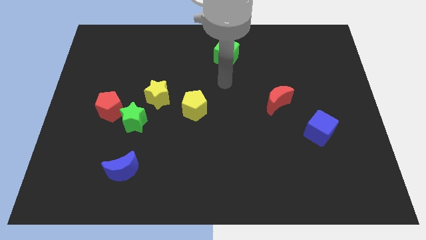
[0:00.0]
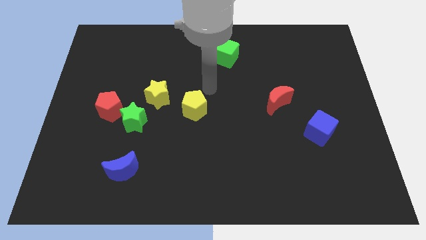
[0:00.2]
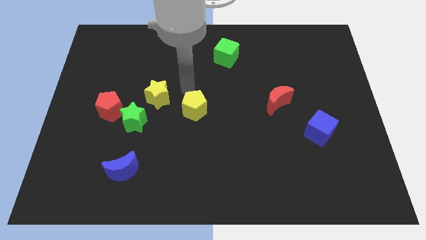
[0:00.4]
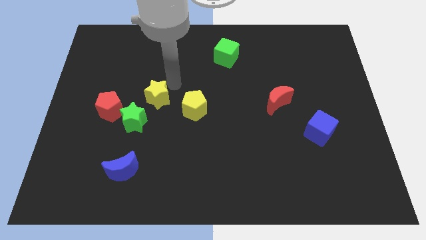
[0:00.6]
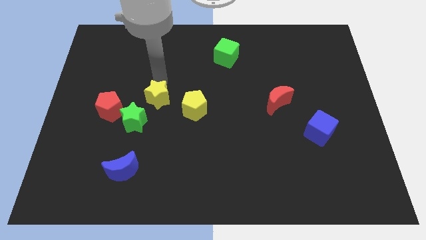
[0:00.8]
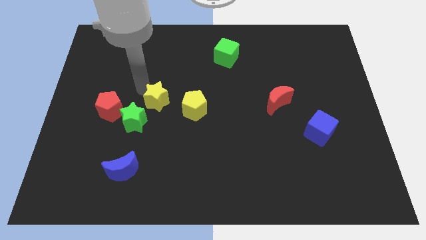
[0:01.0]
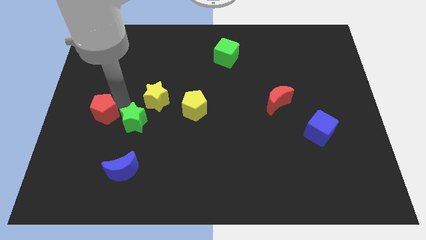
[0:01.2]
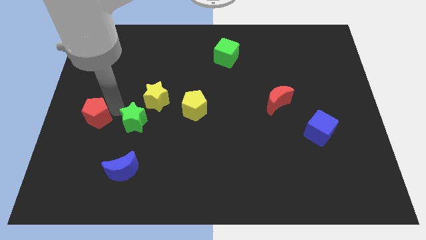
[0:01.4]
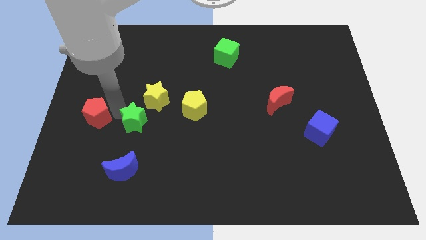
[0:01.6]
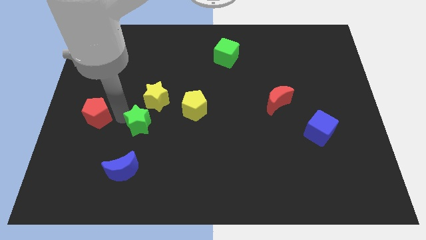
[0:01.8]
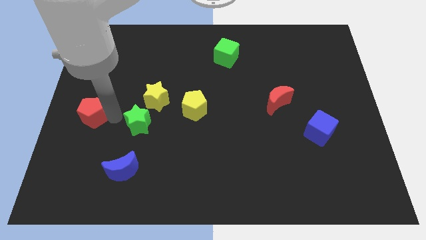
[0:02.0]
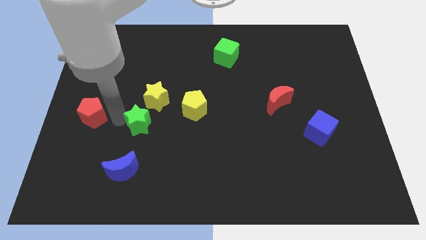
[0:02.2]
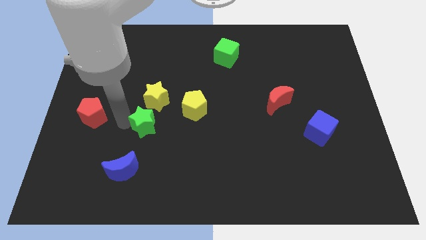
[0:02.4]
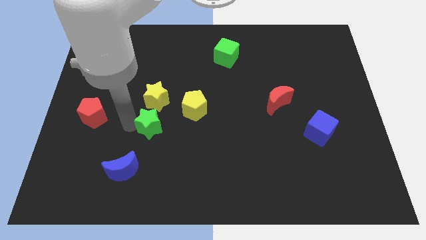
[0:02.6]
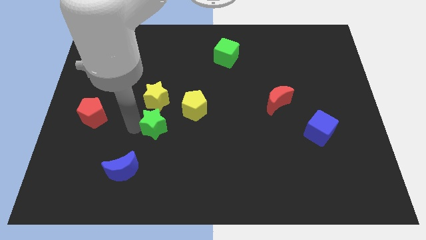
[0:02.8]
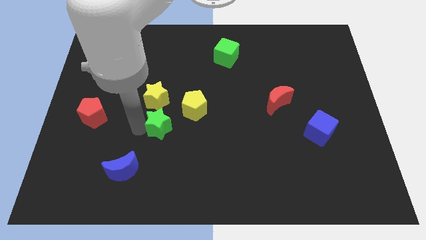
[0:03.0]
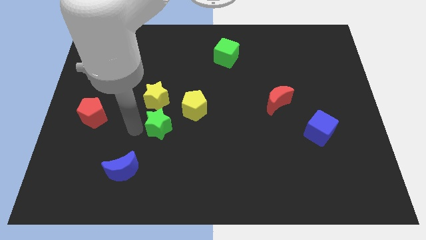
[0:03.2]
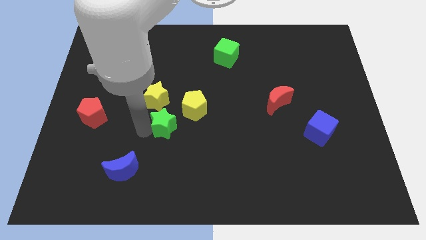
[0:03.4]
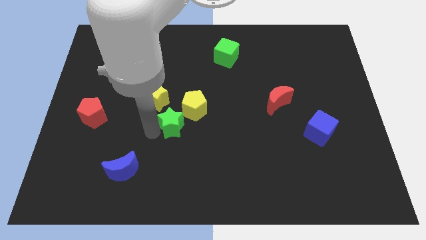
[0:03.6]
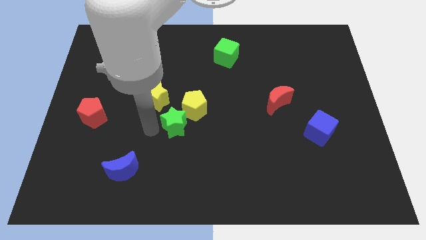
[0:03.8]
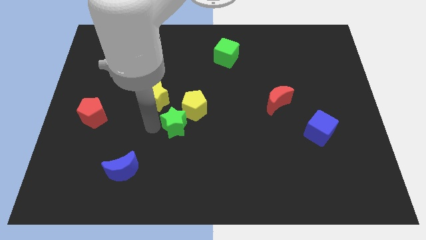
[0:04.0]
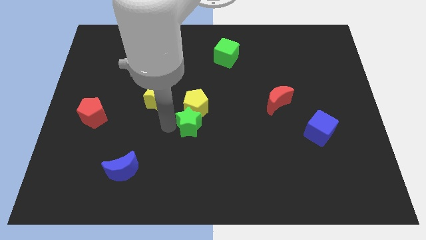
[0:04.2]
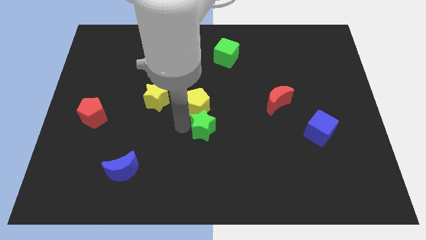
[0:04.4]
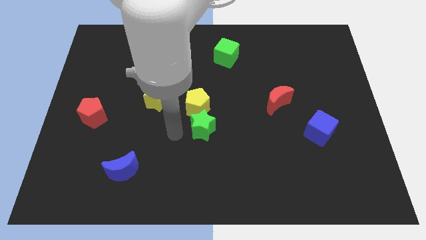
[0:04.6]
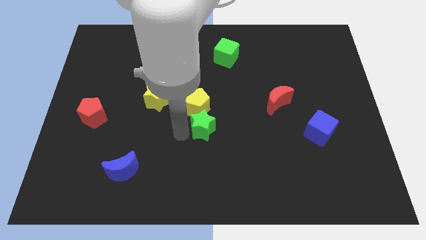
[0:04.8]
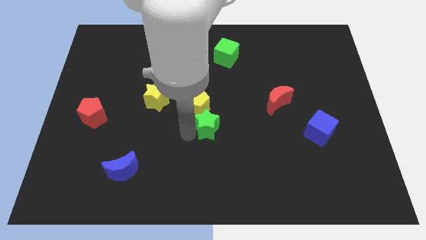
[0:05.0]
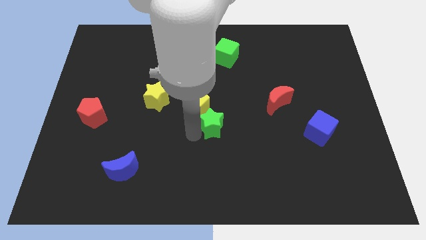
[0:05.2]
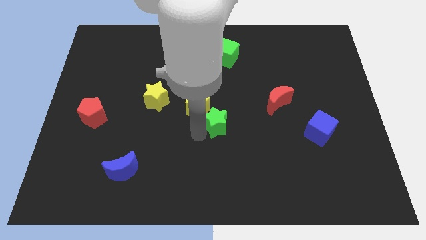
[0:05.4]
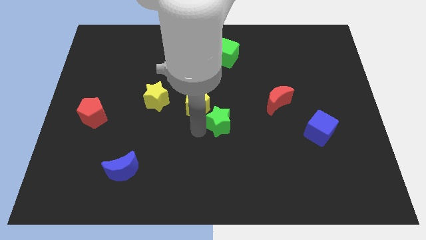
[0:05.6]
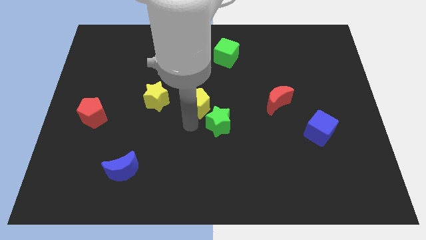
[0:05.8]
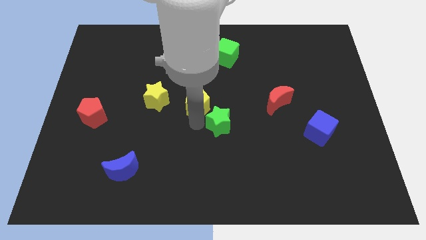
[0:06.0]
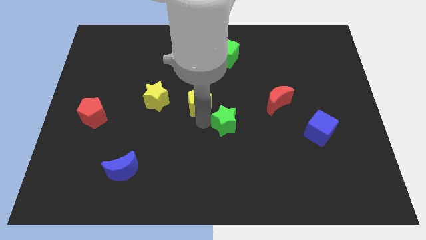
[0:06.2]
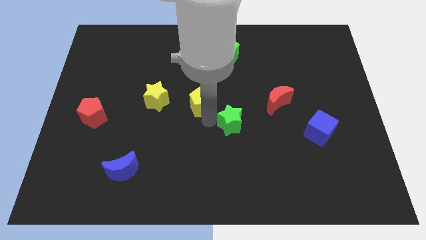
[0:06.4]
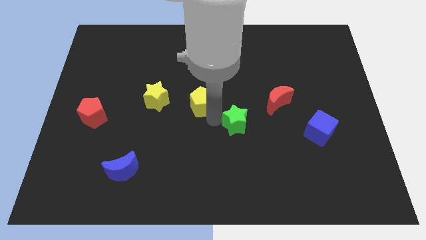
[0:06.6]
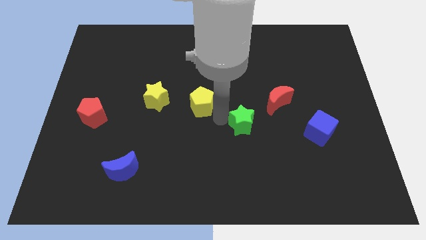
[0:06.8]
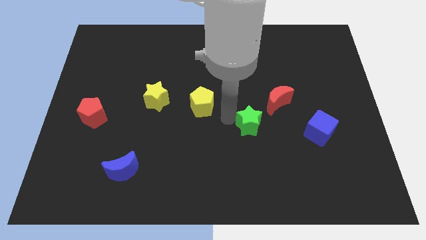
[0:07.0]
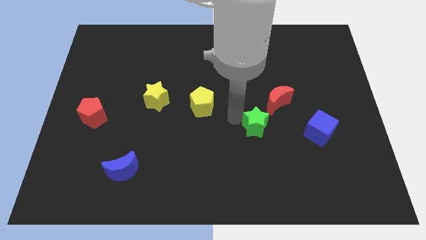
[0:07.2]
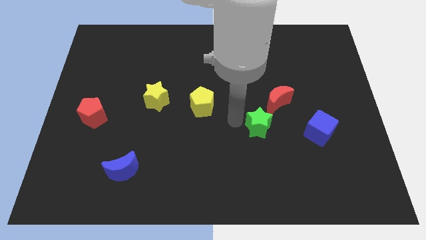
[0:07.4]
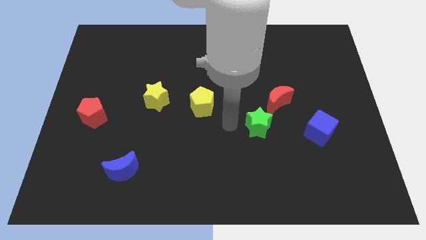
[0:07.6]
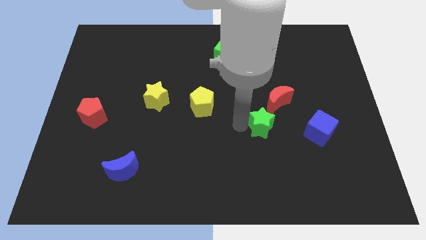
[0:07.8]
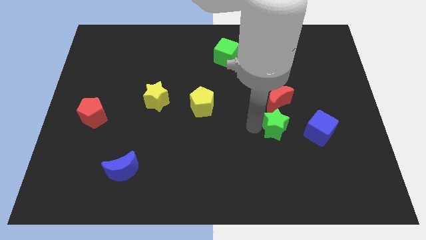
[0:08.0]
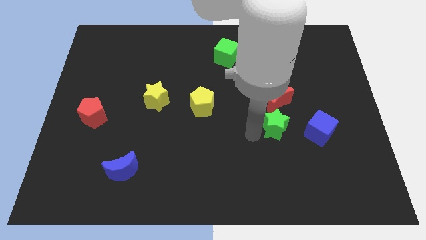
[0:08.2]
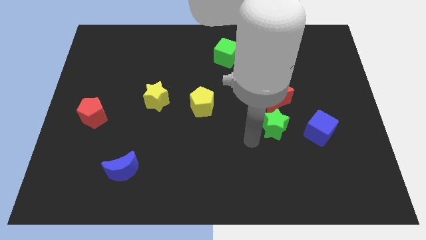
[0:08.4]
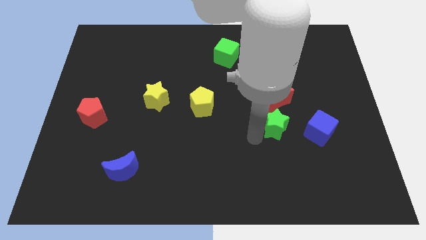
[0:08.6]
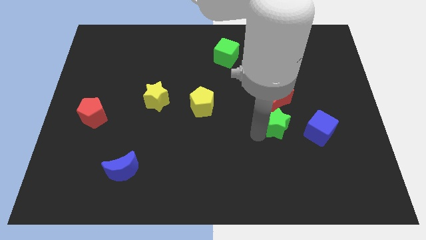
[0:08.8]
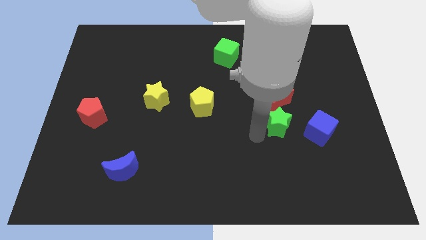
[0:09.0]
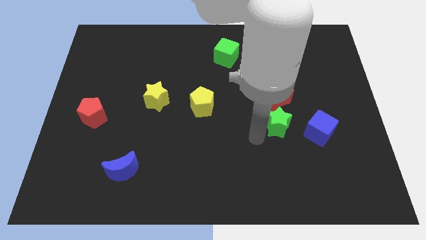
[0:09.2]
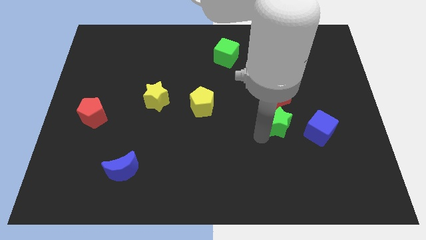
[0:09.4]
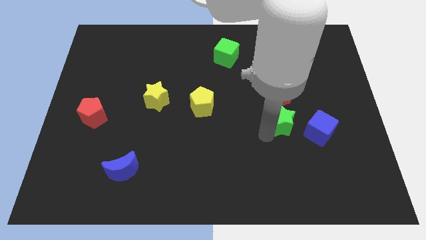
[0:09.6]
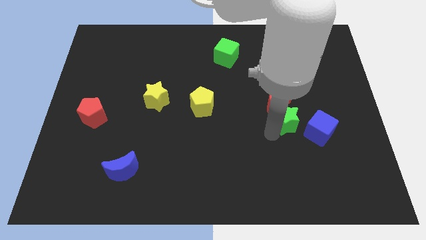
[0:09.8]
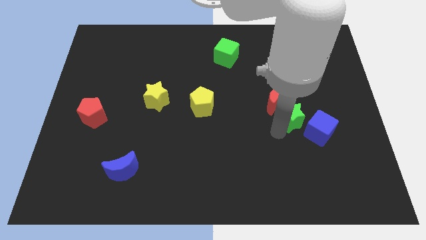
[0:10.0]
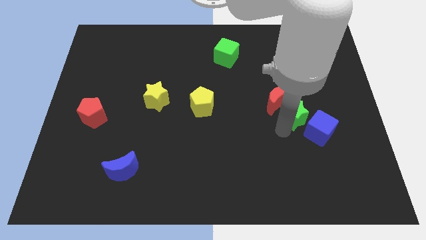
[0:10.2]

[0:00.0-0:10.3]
slide the green star just right of the red moon
